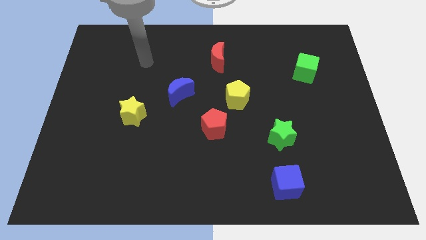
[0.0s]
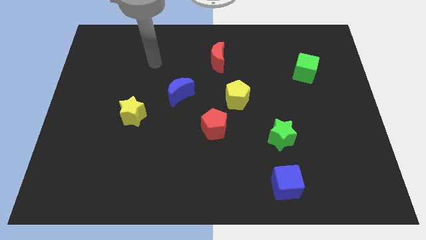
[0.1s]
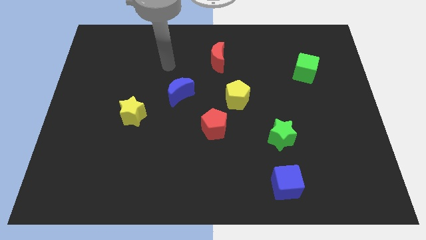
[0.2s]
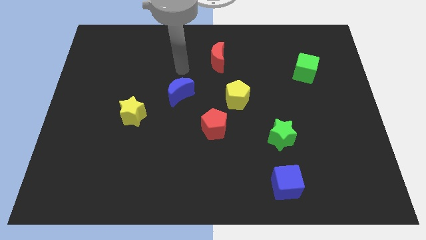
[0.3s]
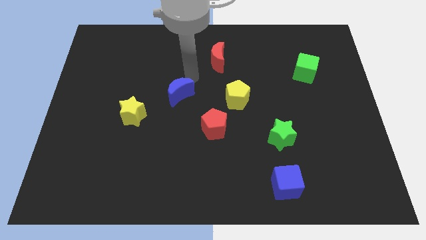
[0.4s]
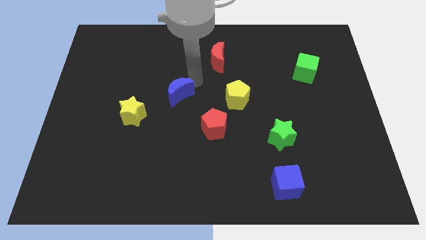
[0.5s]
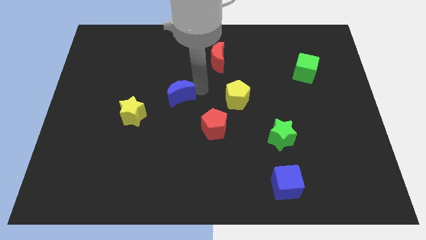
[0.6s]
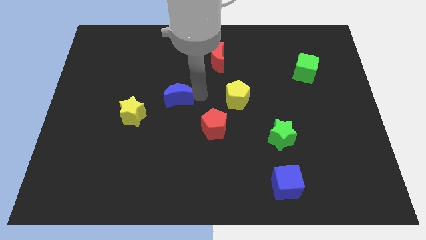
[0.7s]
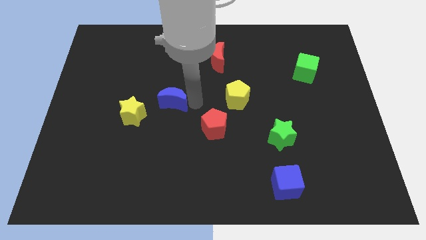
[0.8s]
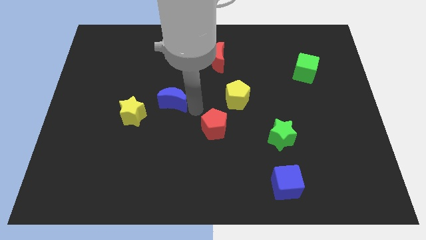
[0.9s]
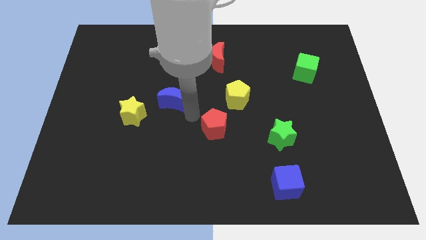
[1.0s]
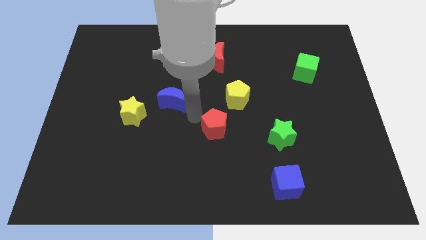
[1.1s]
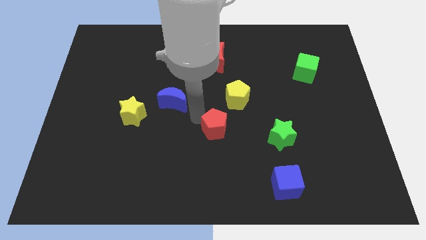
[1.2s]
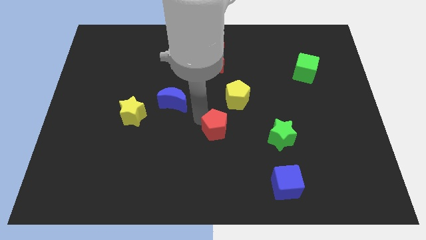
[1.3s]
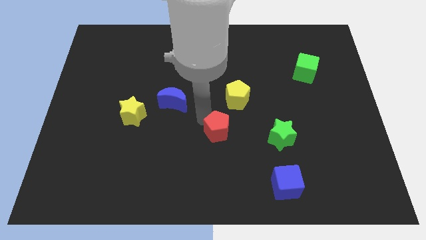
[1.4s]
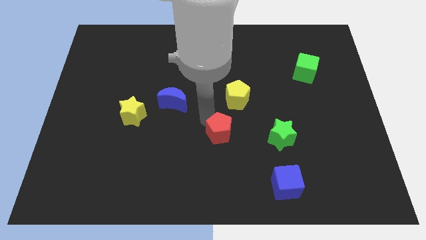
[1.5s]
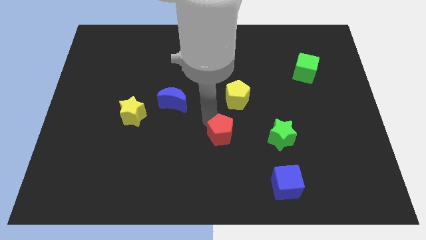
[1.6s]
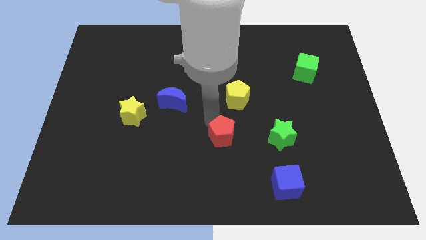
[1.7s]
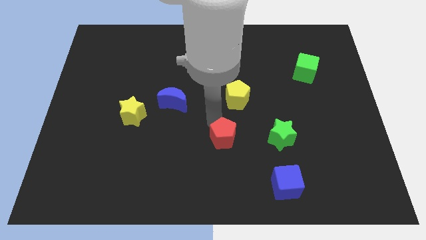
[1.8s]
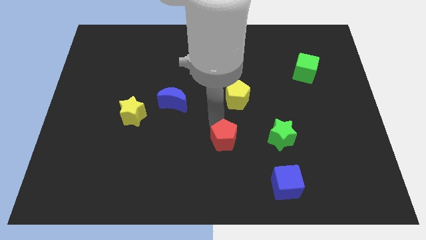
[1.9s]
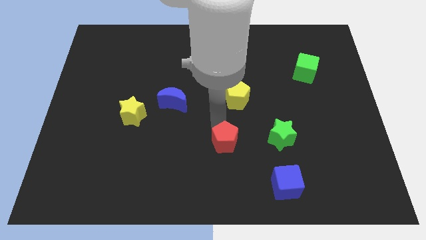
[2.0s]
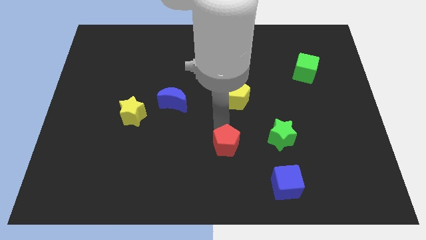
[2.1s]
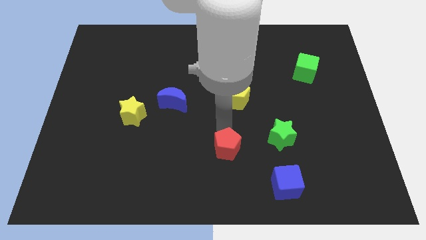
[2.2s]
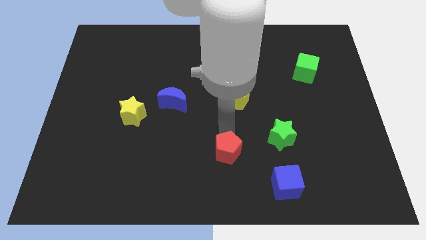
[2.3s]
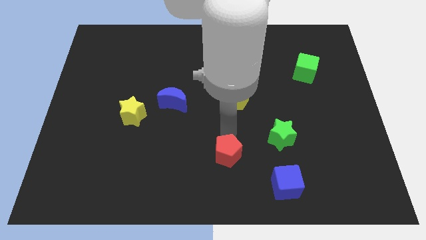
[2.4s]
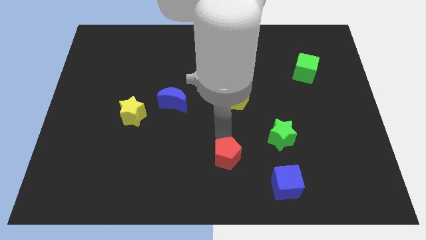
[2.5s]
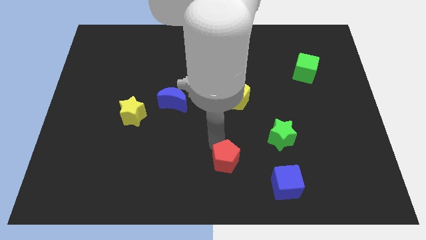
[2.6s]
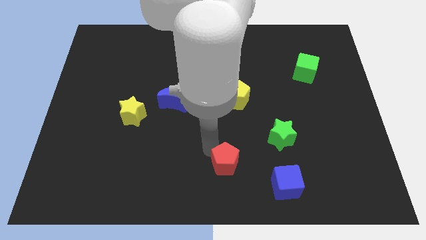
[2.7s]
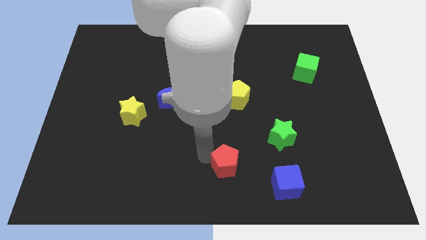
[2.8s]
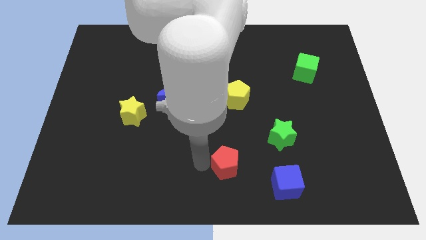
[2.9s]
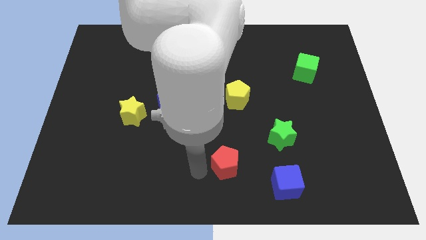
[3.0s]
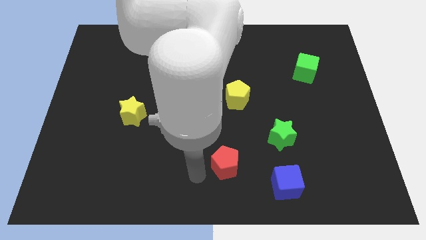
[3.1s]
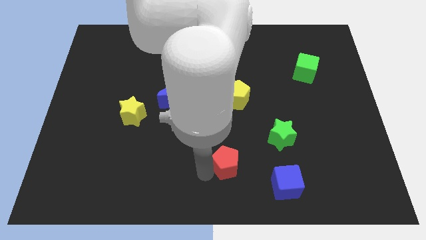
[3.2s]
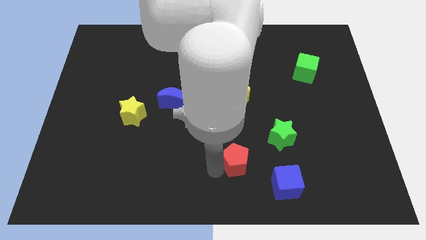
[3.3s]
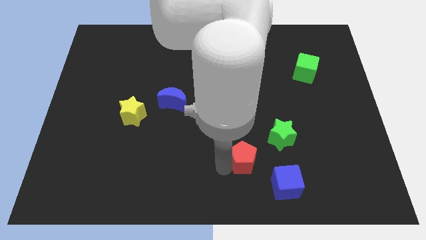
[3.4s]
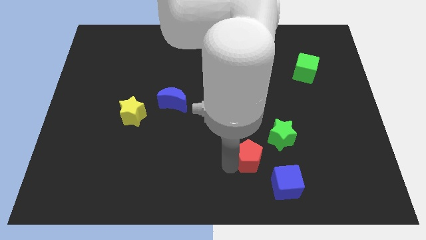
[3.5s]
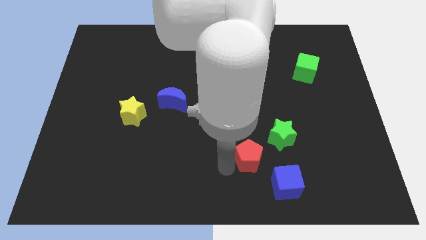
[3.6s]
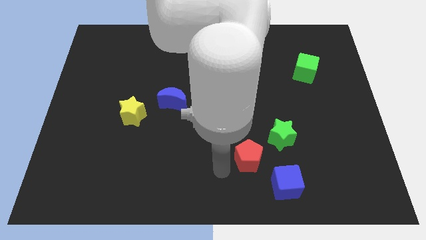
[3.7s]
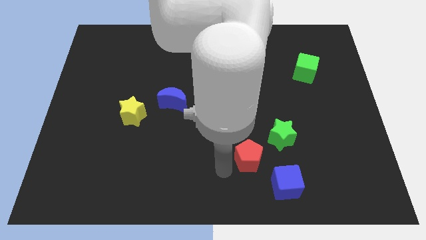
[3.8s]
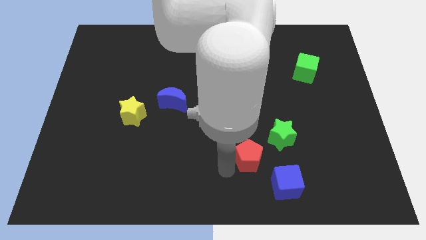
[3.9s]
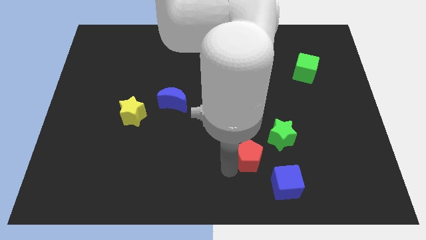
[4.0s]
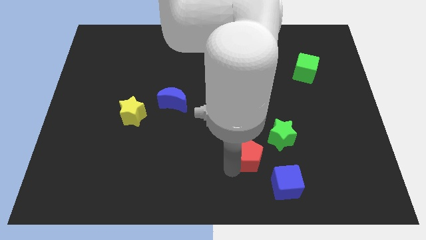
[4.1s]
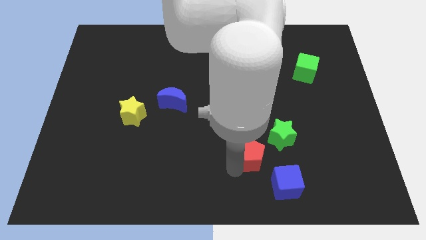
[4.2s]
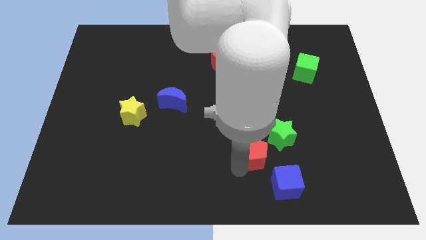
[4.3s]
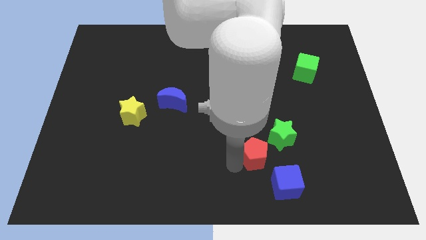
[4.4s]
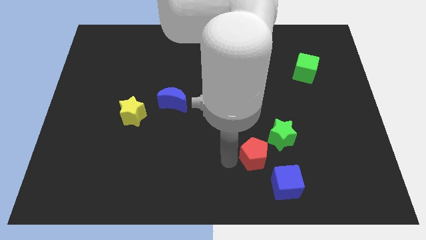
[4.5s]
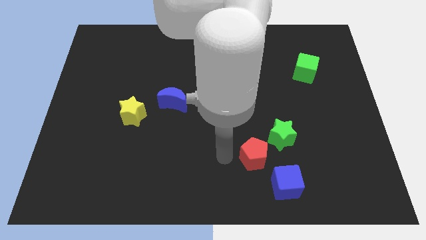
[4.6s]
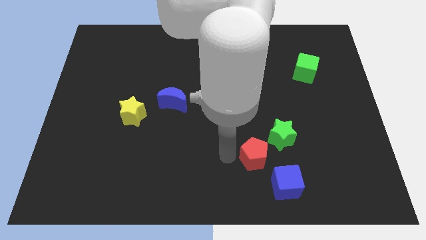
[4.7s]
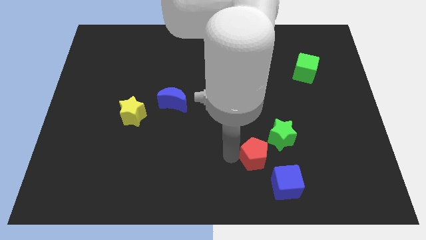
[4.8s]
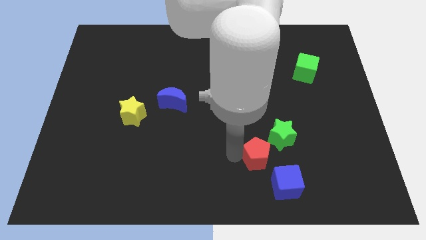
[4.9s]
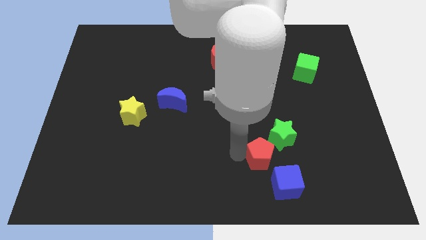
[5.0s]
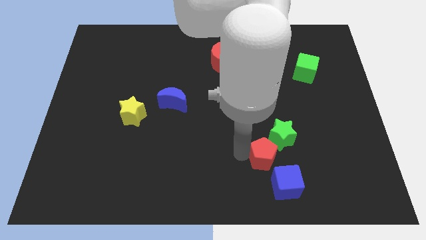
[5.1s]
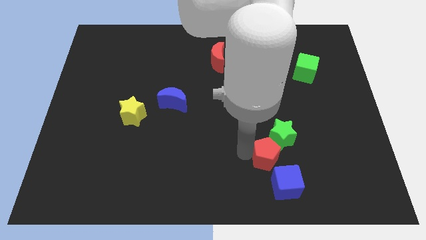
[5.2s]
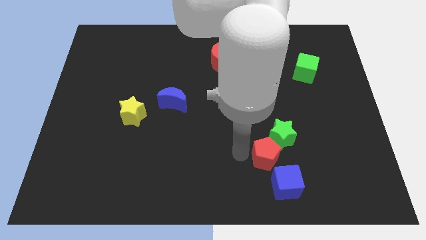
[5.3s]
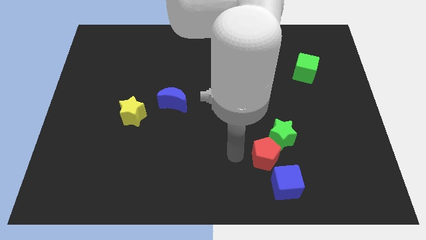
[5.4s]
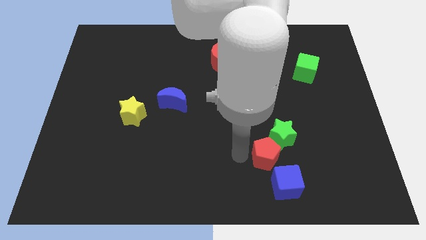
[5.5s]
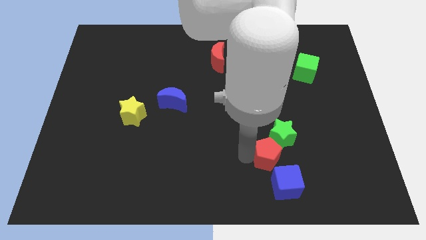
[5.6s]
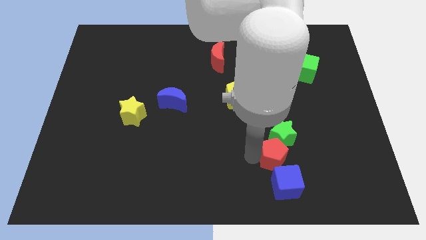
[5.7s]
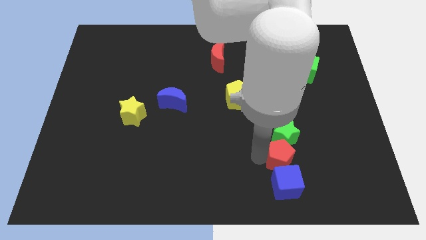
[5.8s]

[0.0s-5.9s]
put the red pentagon to the top right side of the blue cube

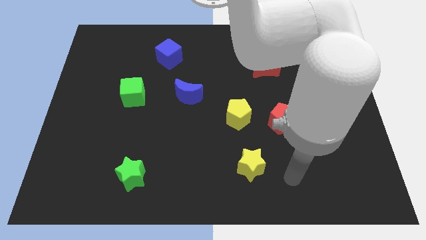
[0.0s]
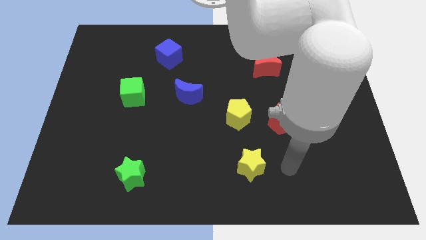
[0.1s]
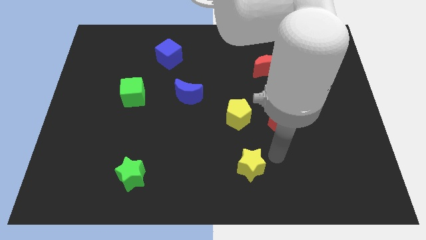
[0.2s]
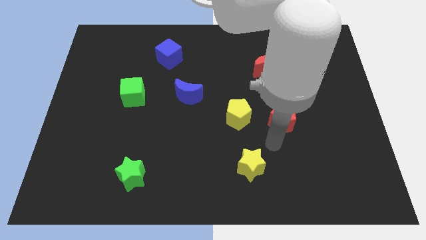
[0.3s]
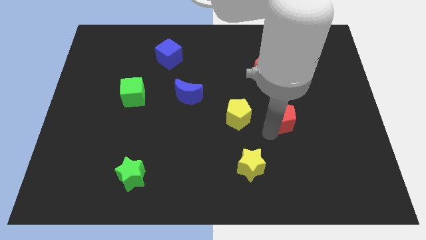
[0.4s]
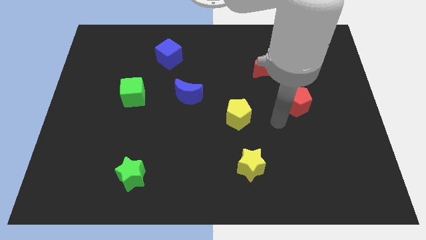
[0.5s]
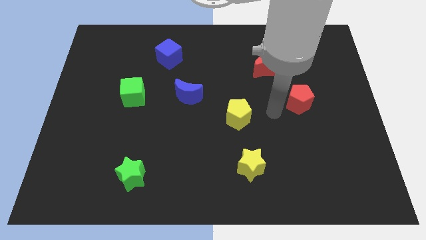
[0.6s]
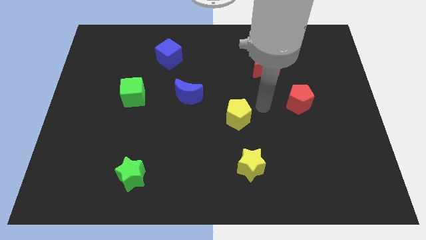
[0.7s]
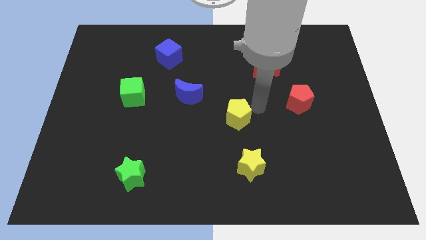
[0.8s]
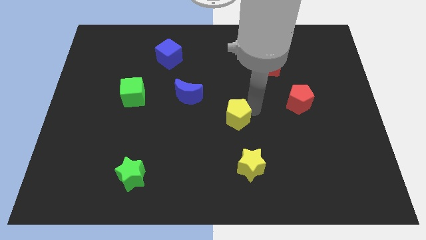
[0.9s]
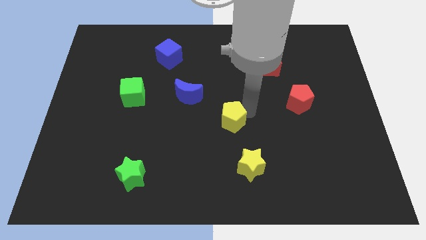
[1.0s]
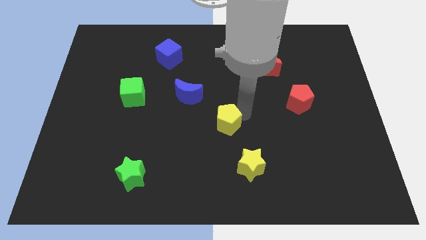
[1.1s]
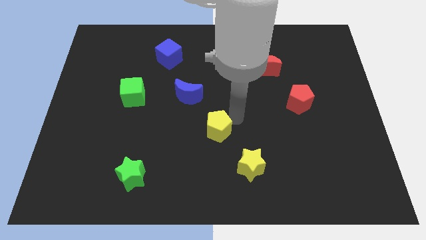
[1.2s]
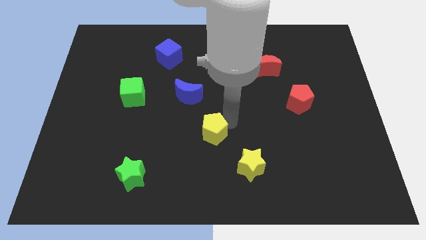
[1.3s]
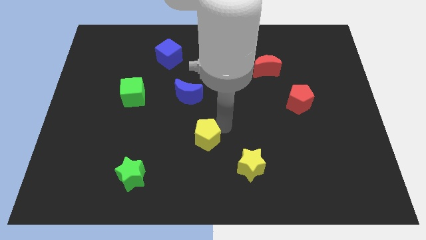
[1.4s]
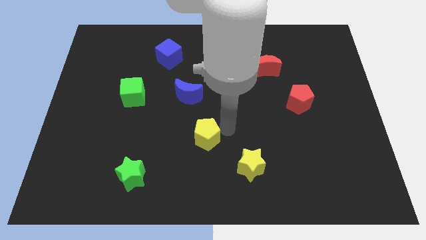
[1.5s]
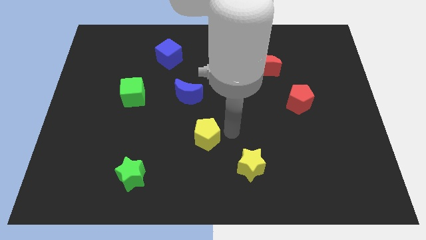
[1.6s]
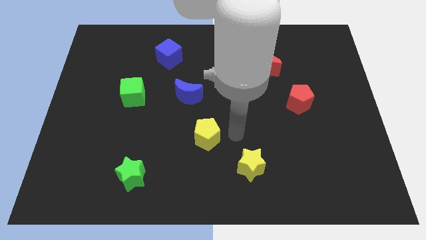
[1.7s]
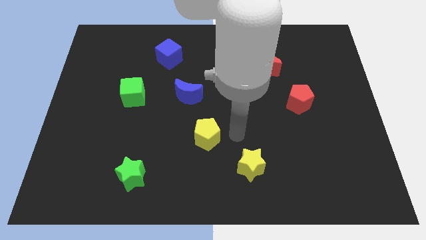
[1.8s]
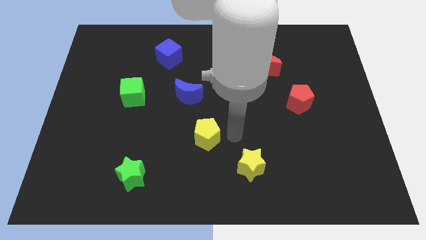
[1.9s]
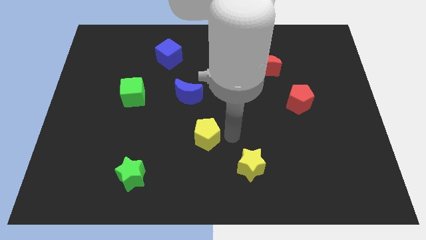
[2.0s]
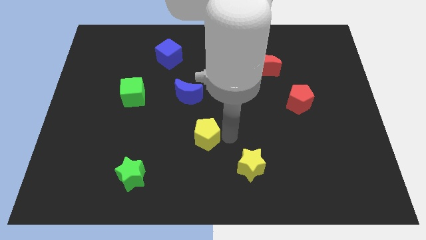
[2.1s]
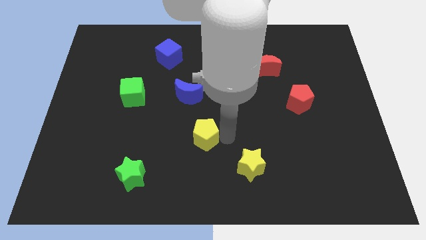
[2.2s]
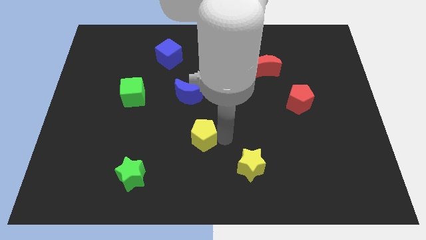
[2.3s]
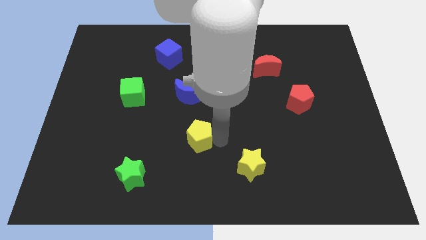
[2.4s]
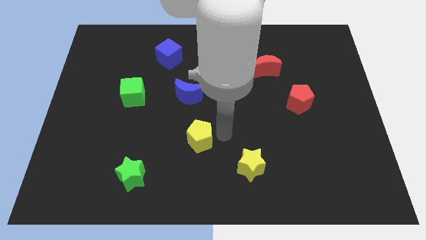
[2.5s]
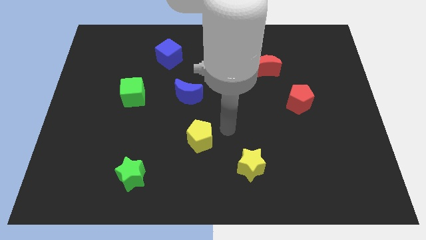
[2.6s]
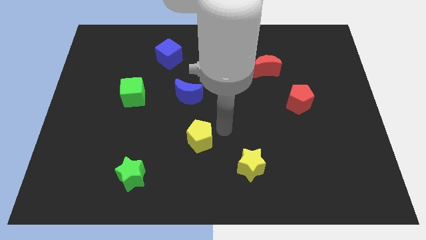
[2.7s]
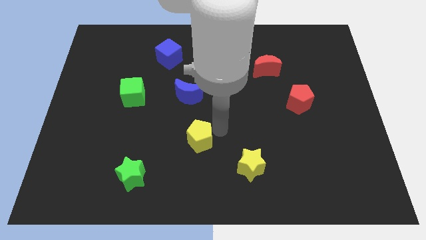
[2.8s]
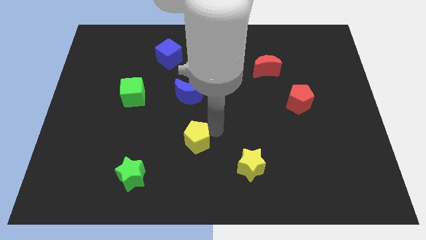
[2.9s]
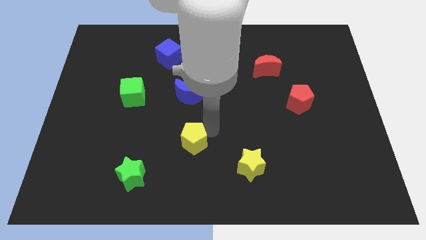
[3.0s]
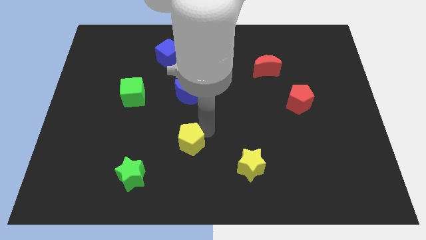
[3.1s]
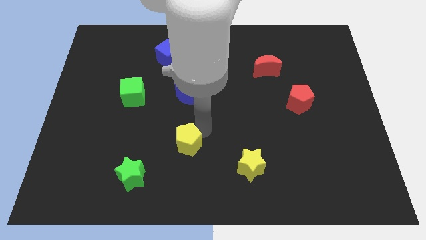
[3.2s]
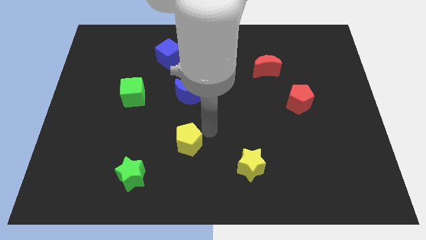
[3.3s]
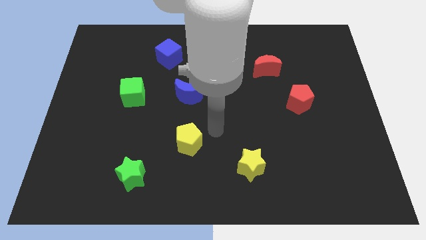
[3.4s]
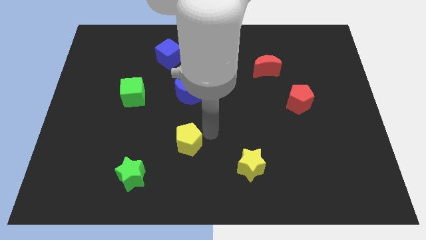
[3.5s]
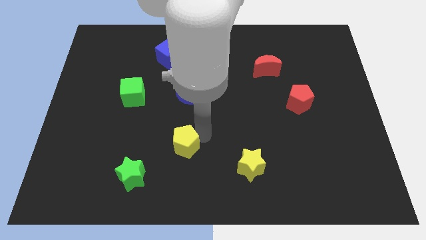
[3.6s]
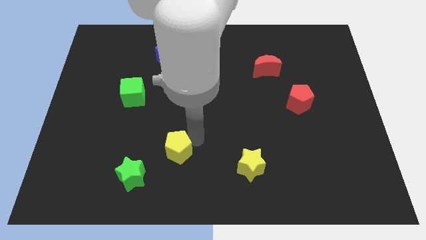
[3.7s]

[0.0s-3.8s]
slide the yellow pentagon diagonally up and to the right of the green star
